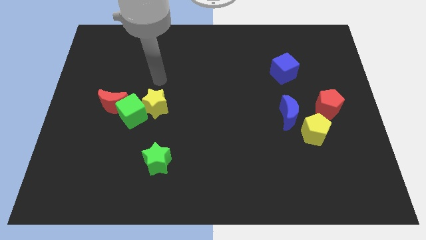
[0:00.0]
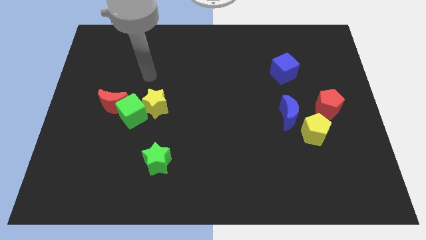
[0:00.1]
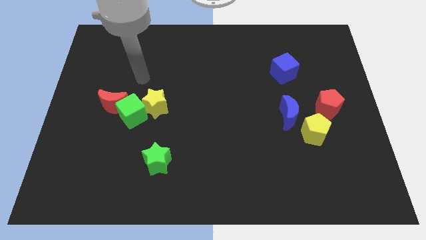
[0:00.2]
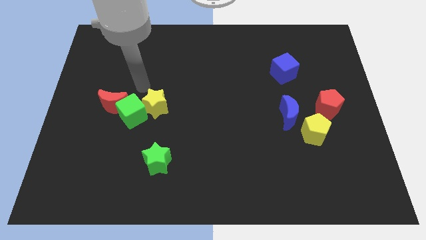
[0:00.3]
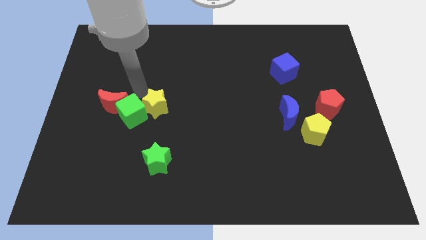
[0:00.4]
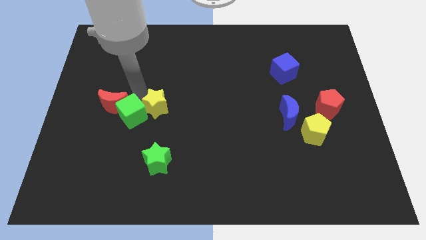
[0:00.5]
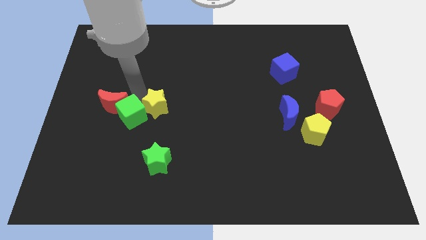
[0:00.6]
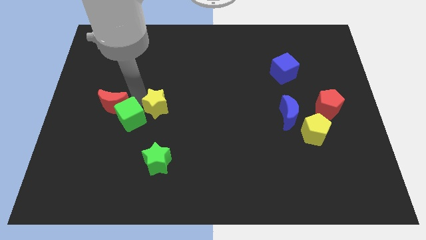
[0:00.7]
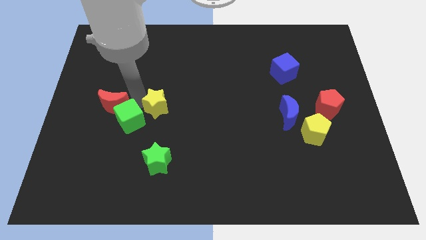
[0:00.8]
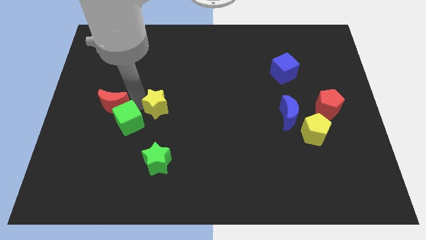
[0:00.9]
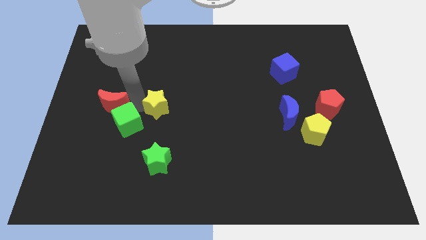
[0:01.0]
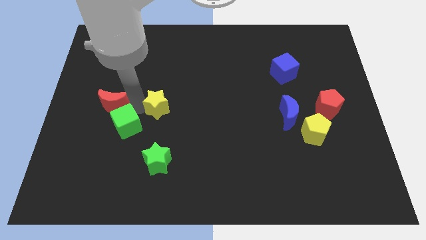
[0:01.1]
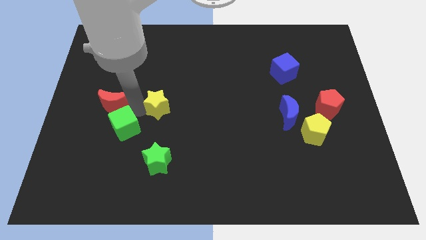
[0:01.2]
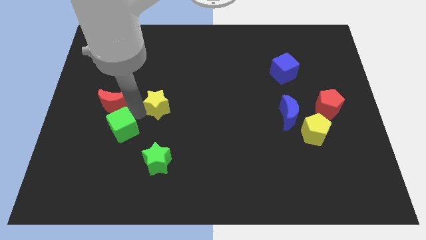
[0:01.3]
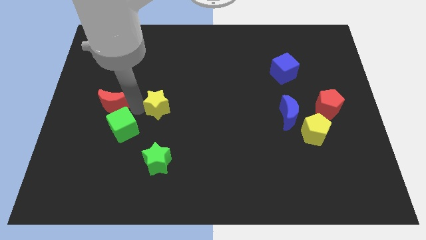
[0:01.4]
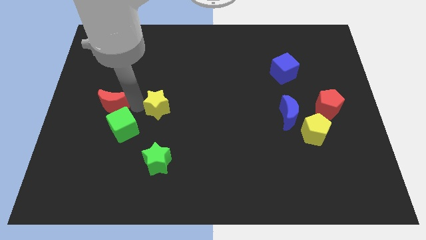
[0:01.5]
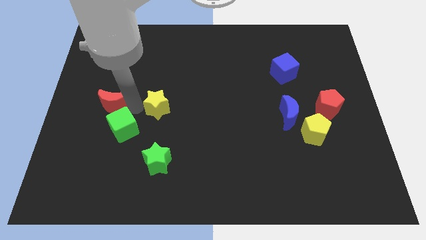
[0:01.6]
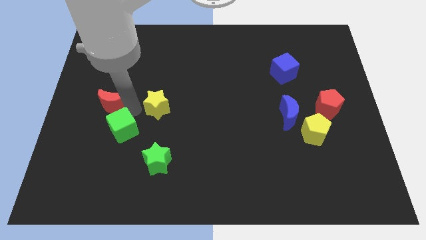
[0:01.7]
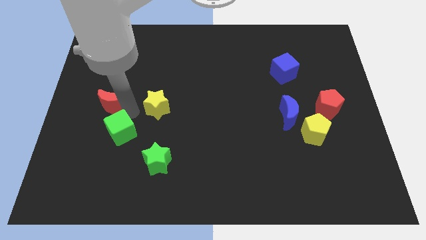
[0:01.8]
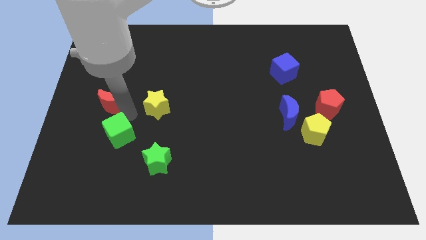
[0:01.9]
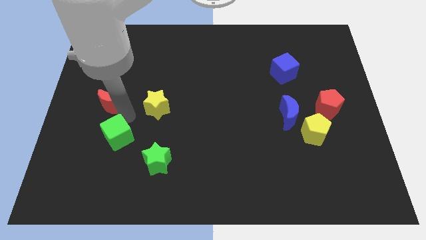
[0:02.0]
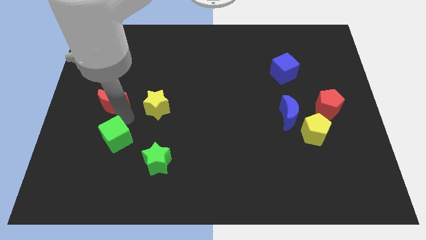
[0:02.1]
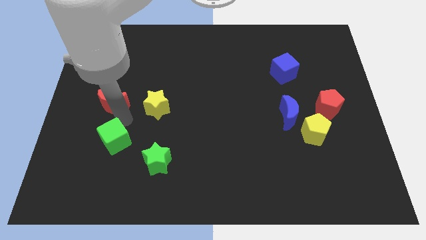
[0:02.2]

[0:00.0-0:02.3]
move the green cube away from the red moon and yellow star

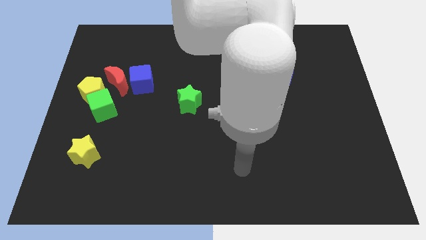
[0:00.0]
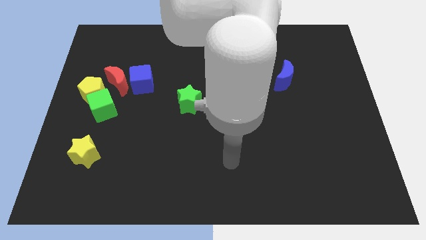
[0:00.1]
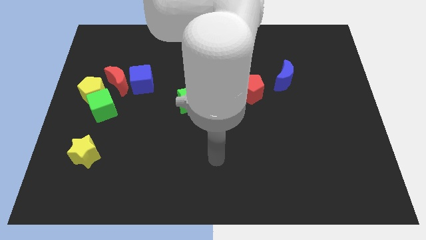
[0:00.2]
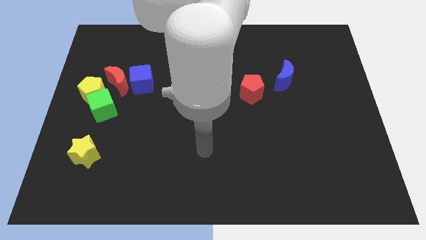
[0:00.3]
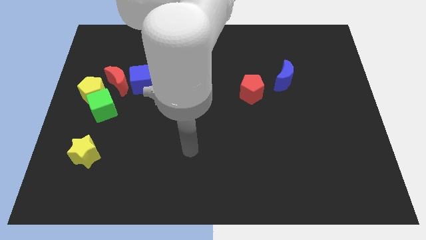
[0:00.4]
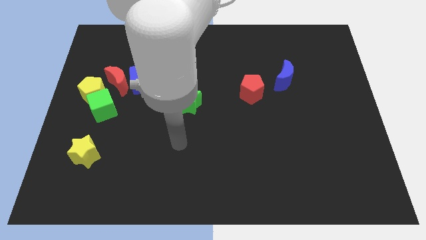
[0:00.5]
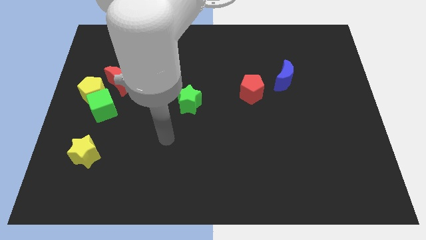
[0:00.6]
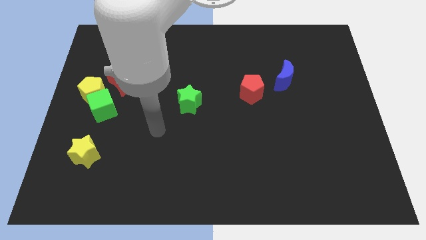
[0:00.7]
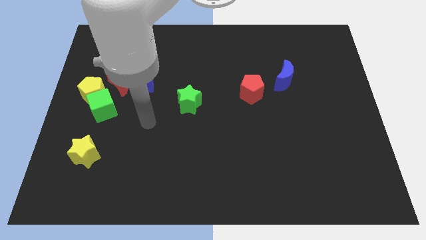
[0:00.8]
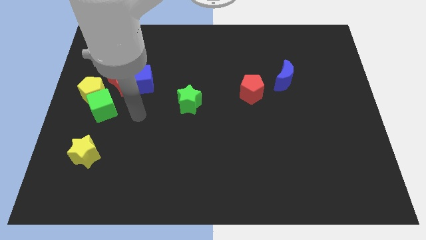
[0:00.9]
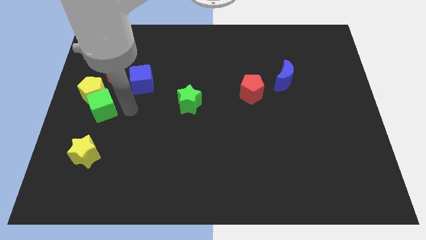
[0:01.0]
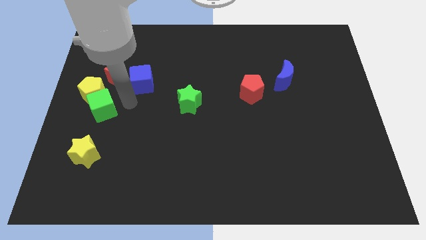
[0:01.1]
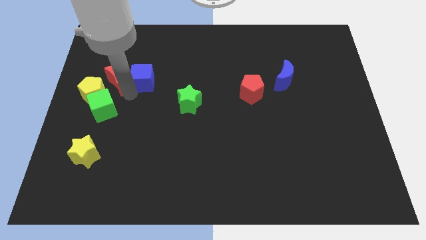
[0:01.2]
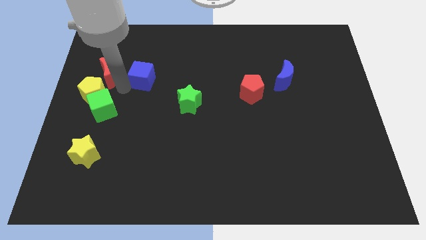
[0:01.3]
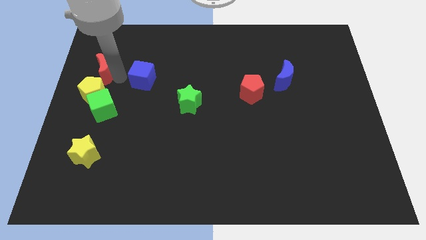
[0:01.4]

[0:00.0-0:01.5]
move the blue cube away from the red moon

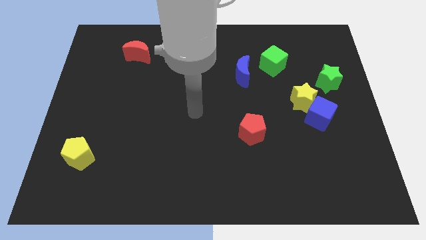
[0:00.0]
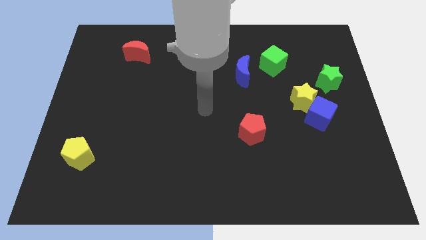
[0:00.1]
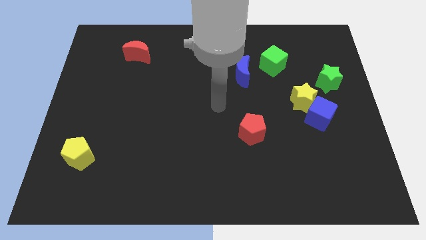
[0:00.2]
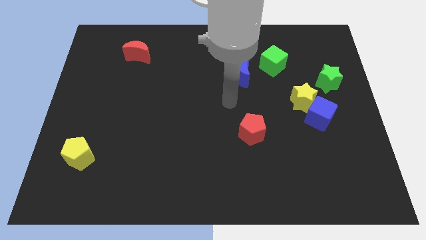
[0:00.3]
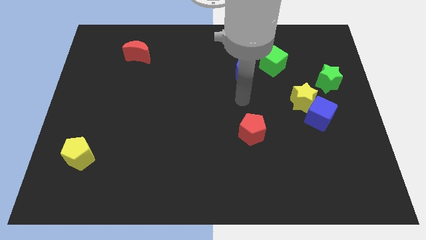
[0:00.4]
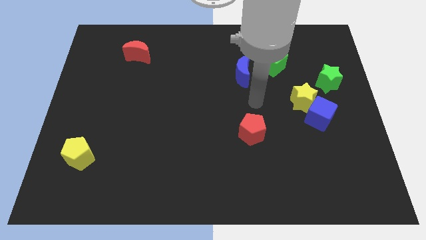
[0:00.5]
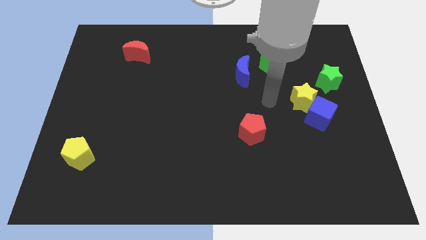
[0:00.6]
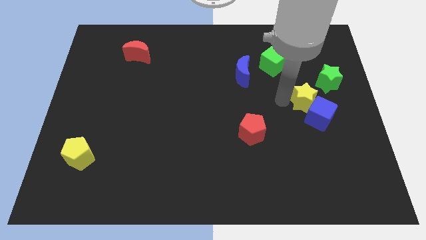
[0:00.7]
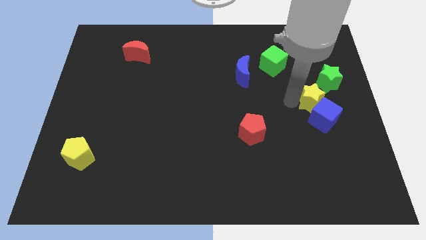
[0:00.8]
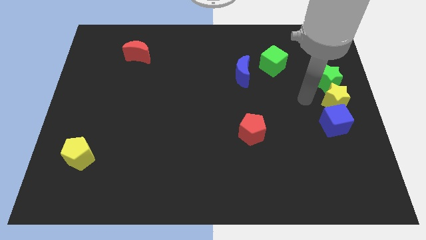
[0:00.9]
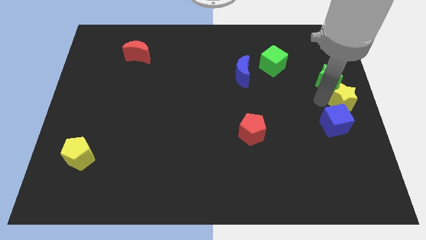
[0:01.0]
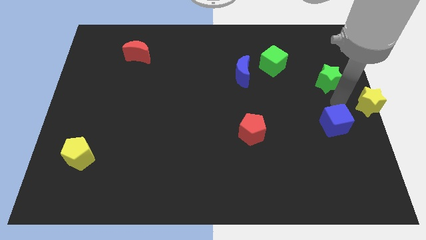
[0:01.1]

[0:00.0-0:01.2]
move the blue cube away from the yellow star

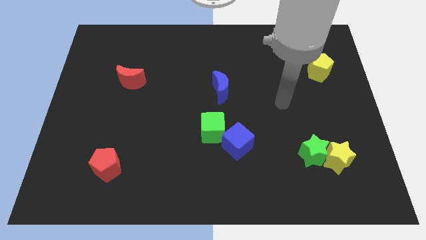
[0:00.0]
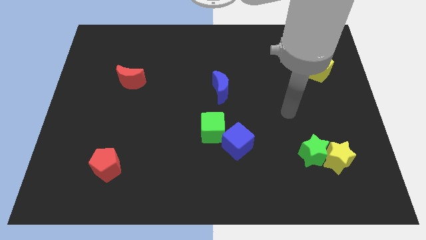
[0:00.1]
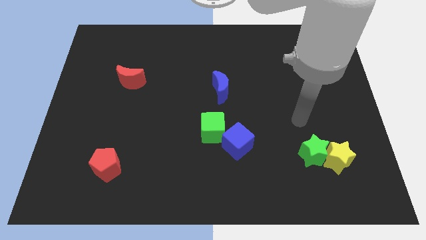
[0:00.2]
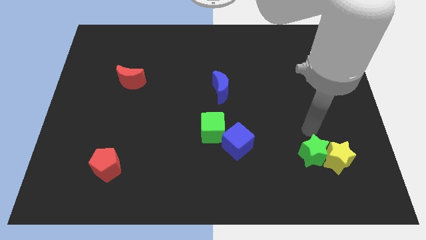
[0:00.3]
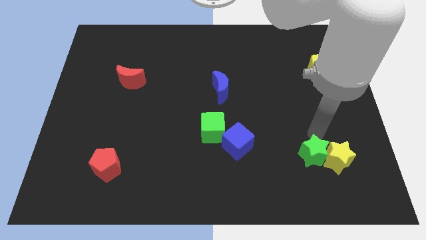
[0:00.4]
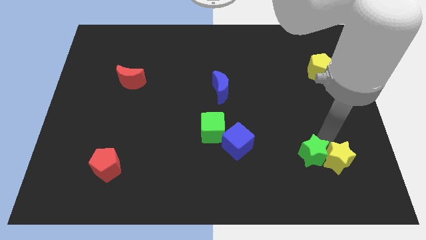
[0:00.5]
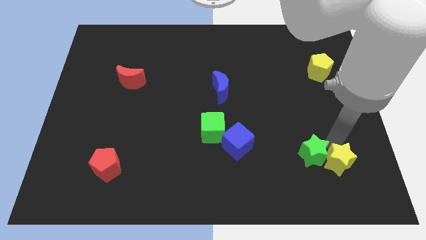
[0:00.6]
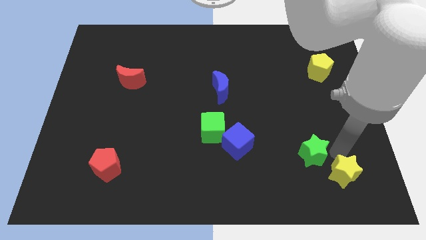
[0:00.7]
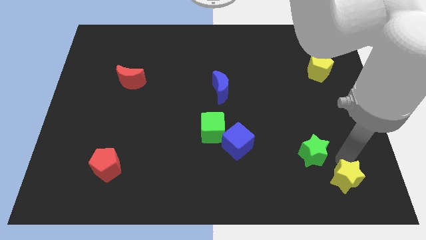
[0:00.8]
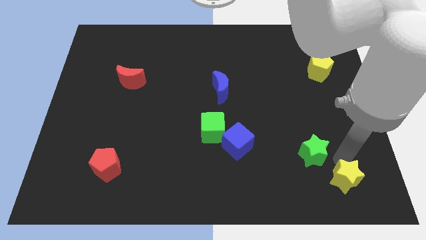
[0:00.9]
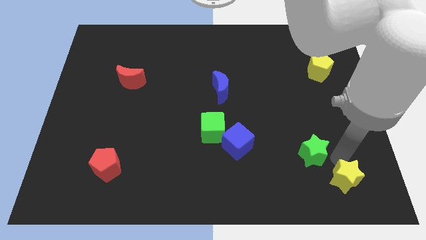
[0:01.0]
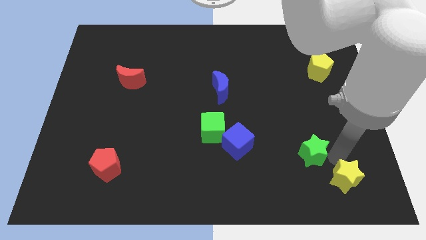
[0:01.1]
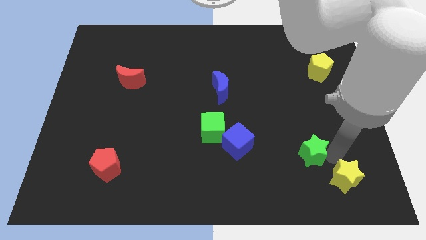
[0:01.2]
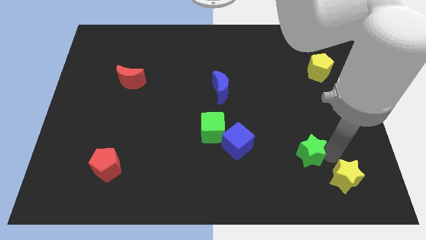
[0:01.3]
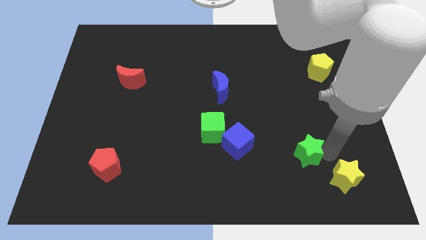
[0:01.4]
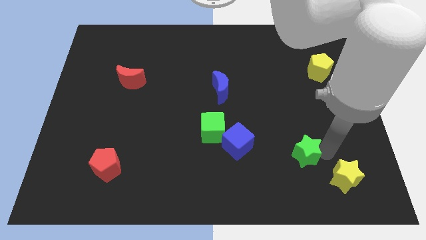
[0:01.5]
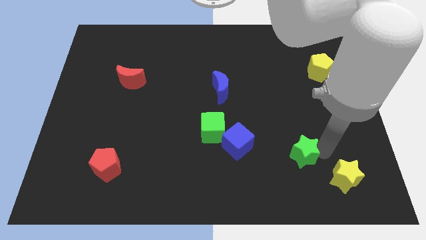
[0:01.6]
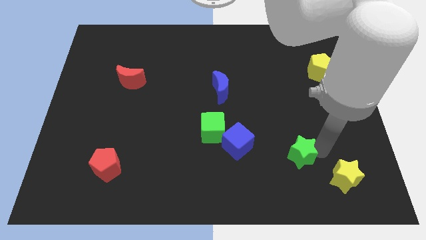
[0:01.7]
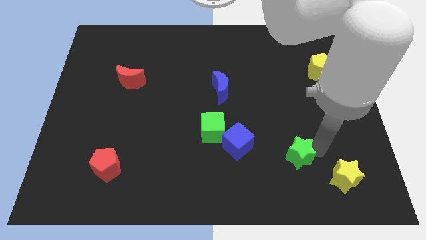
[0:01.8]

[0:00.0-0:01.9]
move the green star away from the yellow star

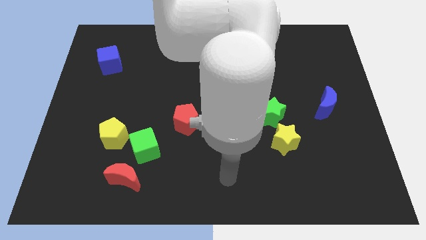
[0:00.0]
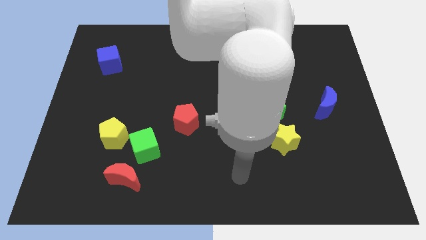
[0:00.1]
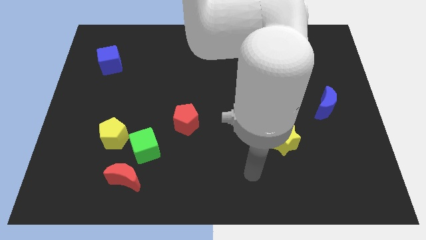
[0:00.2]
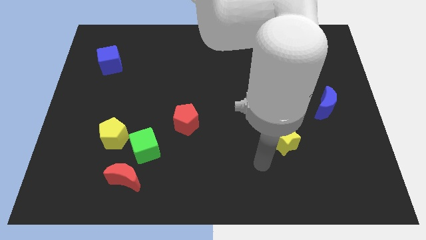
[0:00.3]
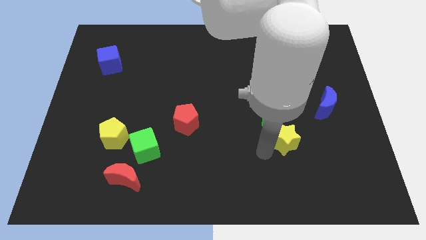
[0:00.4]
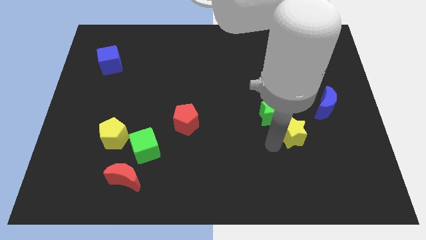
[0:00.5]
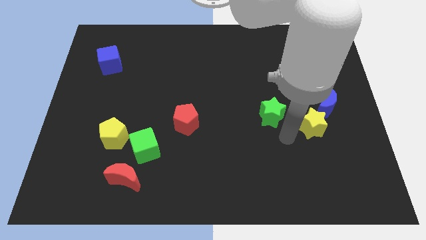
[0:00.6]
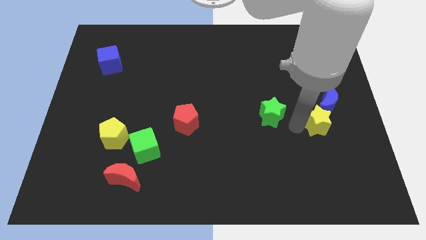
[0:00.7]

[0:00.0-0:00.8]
separate the green star from the yellow star

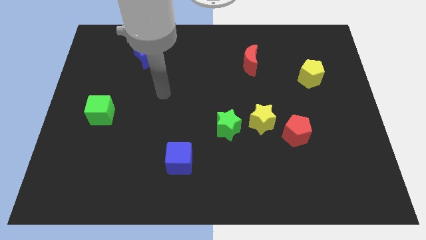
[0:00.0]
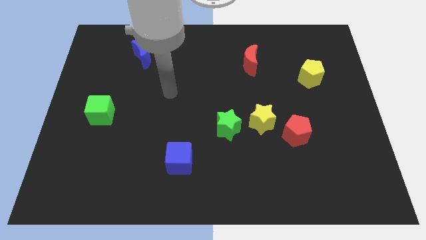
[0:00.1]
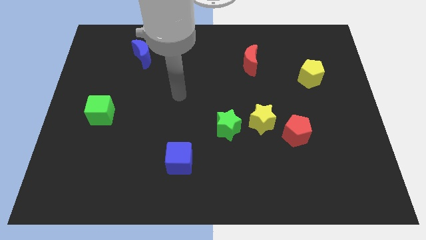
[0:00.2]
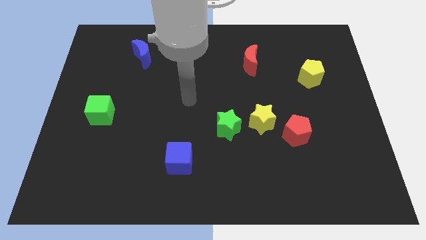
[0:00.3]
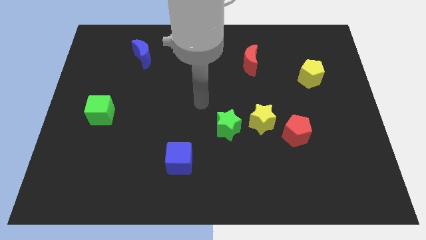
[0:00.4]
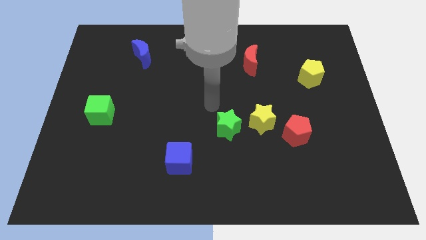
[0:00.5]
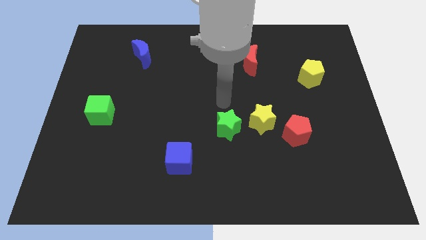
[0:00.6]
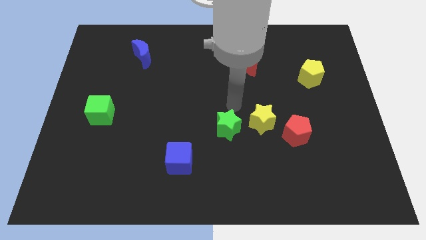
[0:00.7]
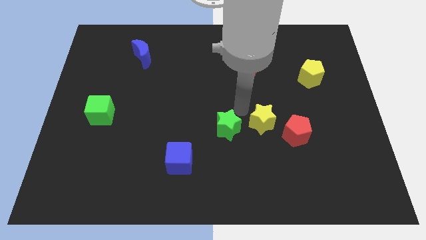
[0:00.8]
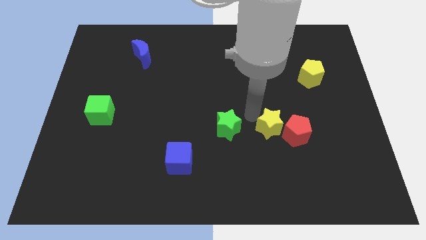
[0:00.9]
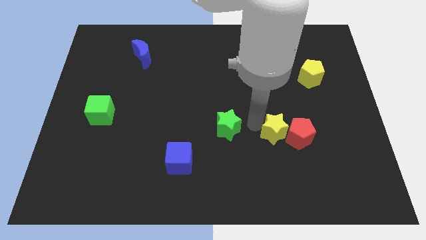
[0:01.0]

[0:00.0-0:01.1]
pull the green star apart from the yellow star

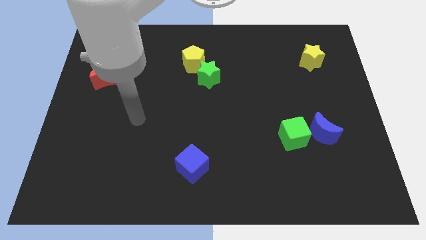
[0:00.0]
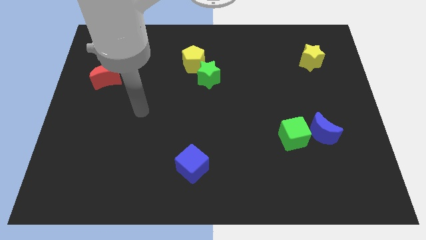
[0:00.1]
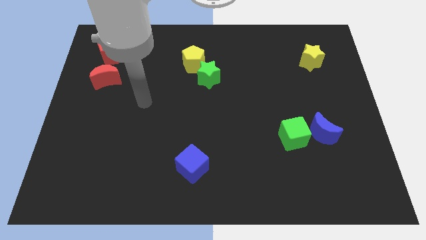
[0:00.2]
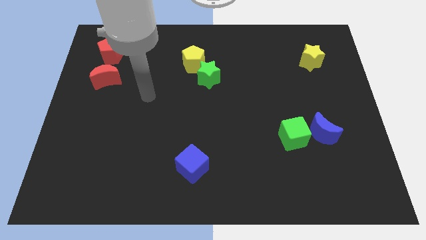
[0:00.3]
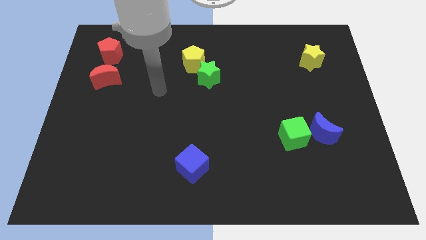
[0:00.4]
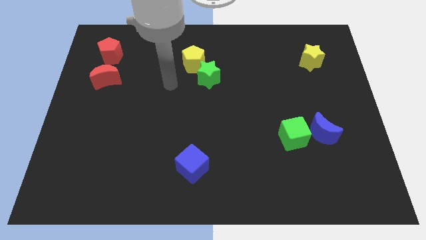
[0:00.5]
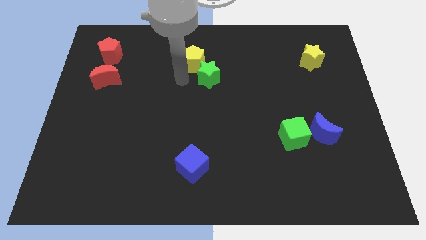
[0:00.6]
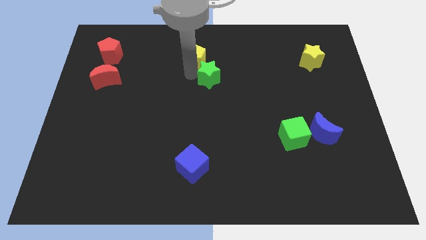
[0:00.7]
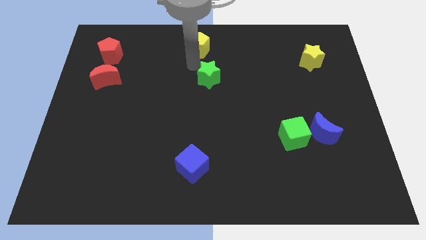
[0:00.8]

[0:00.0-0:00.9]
pull the green star apart from the yellow pentagon
